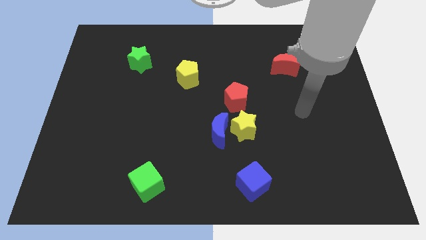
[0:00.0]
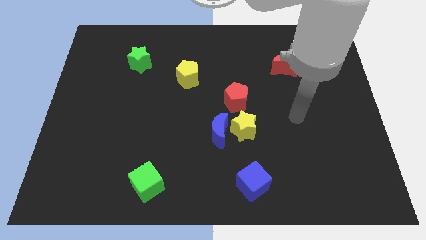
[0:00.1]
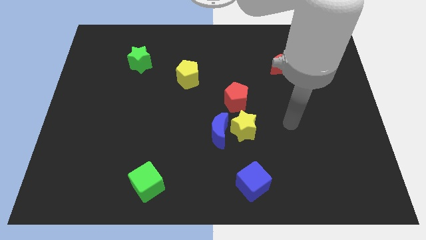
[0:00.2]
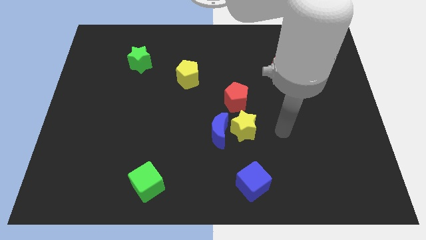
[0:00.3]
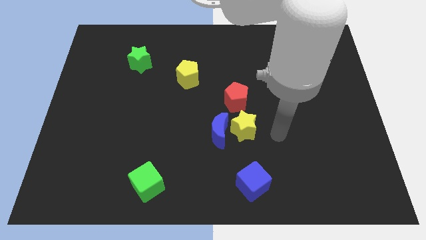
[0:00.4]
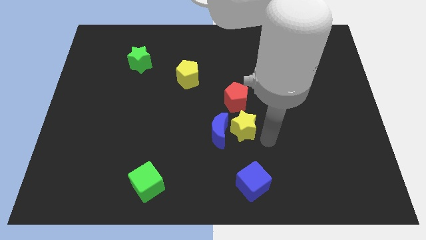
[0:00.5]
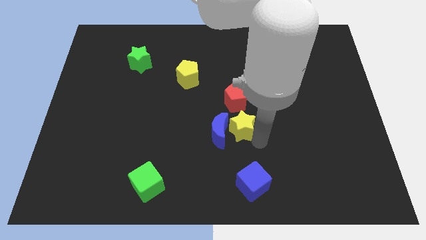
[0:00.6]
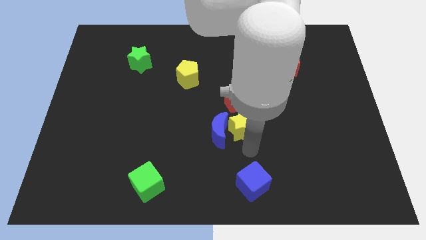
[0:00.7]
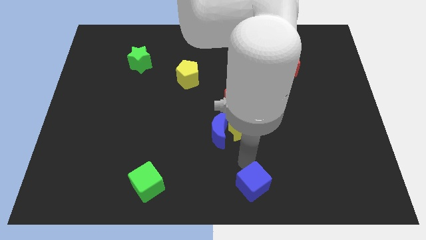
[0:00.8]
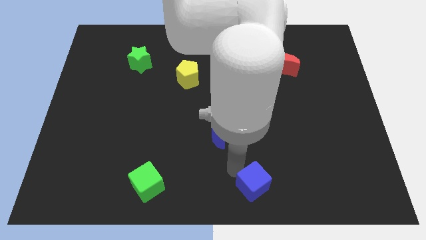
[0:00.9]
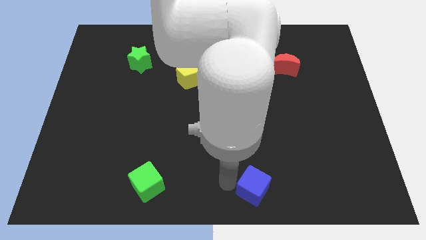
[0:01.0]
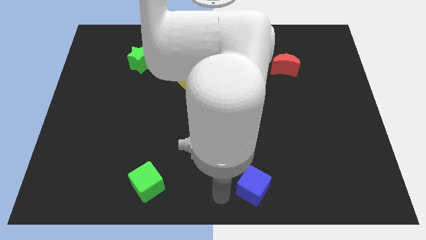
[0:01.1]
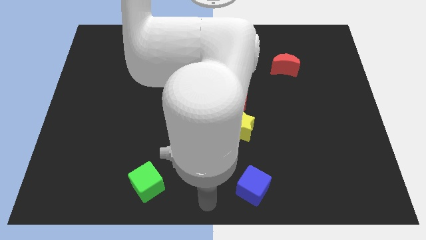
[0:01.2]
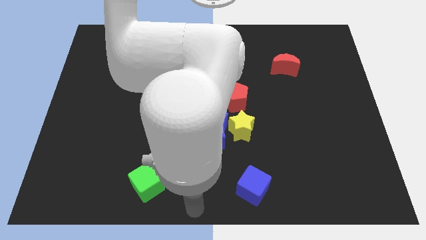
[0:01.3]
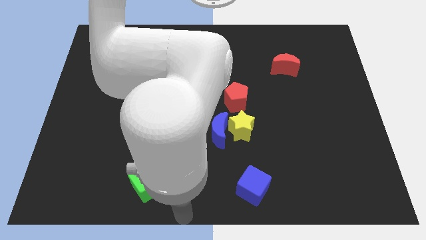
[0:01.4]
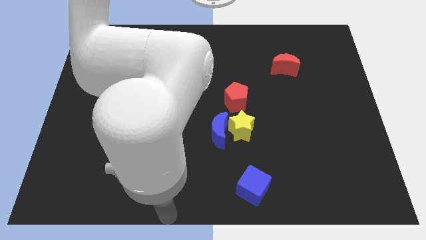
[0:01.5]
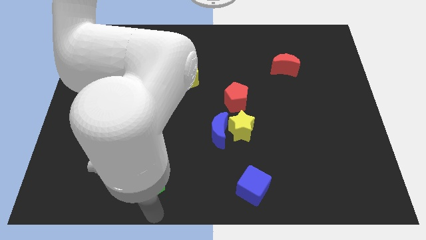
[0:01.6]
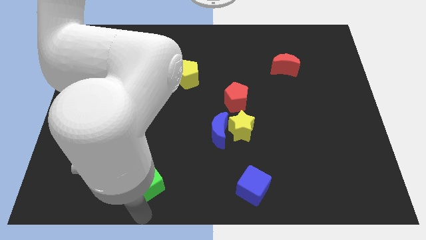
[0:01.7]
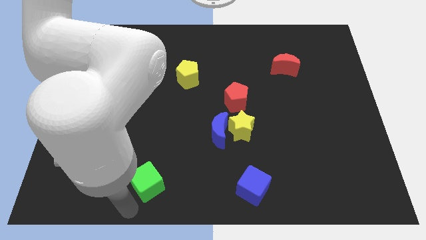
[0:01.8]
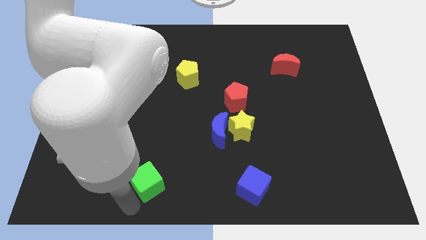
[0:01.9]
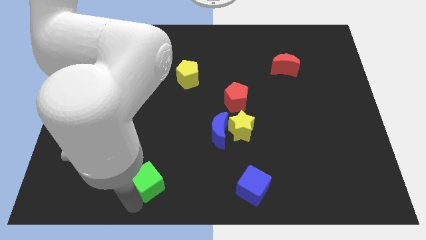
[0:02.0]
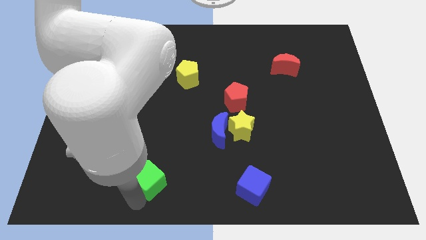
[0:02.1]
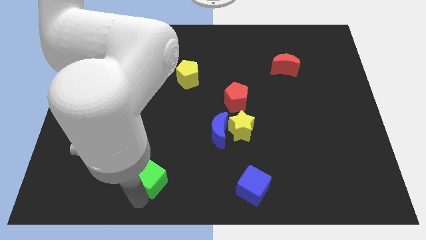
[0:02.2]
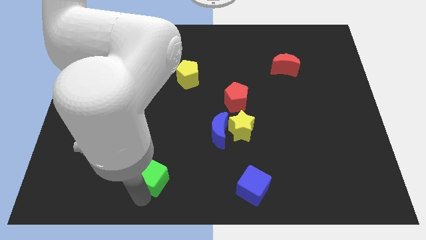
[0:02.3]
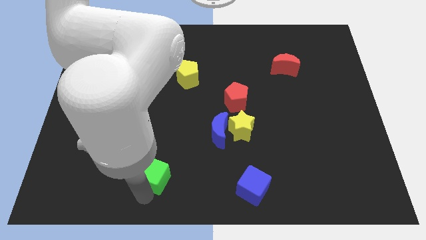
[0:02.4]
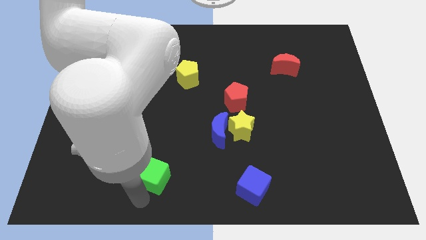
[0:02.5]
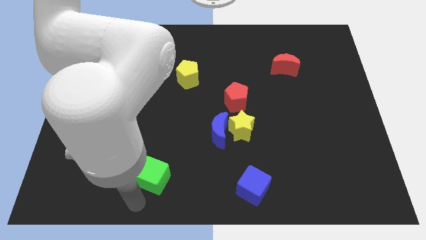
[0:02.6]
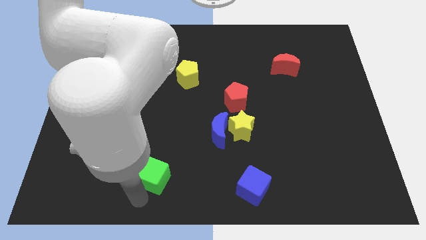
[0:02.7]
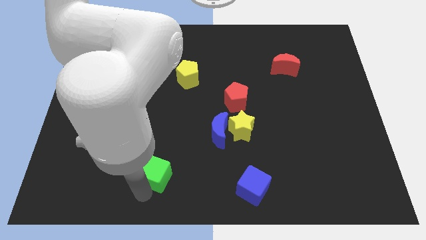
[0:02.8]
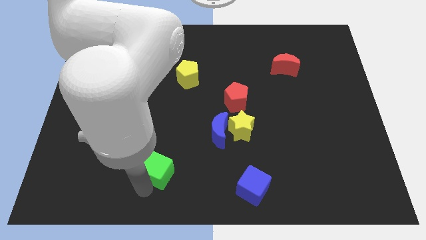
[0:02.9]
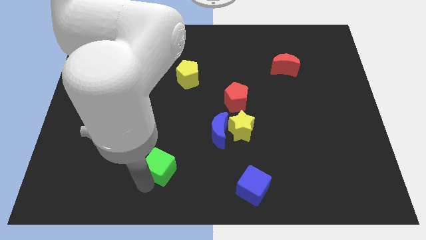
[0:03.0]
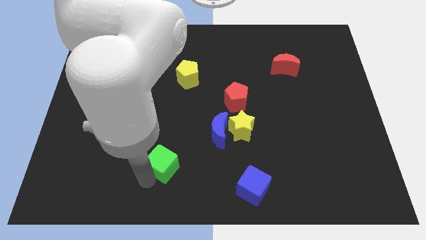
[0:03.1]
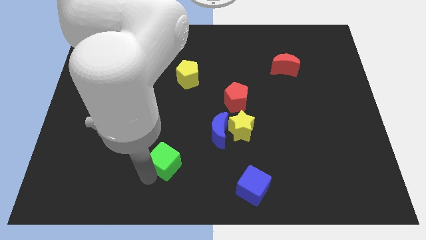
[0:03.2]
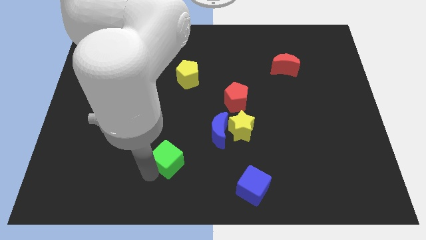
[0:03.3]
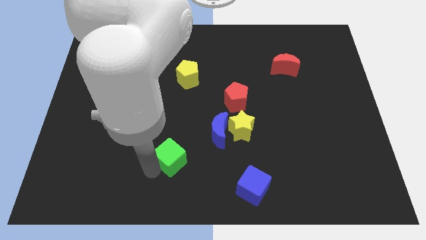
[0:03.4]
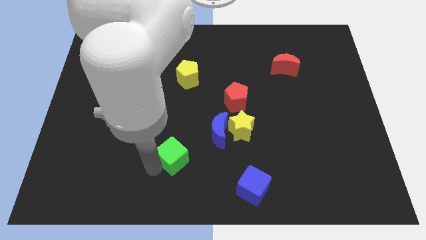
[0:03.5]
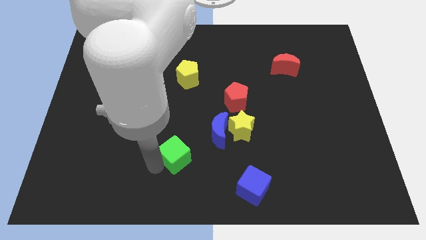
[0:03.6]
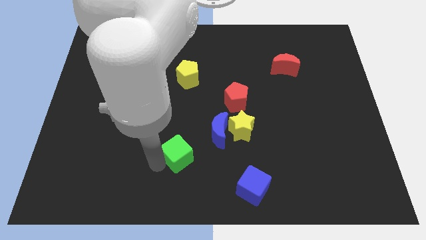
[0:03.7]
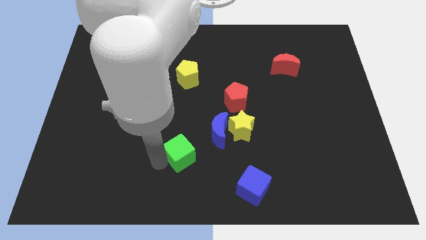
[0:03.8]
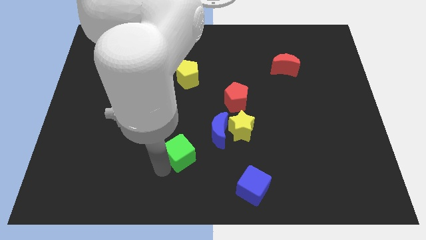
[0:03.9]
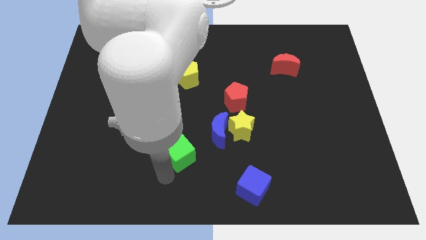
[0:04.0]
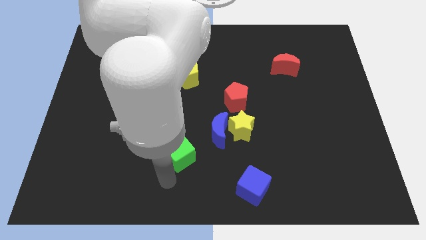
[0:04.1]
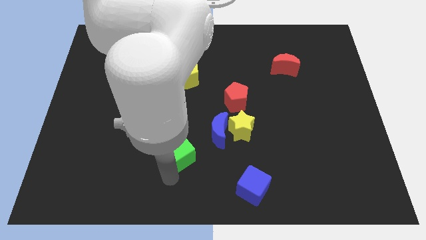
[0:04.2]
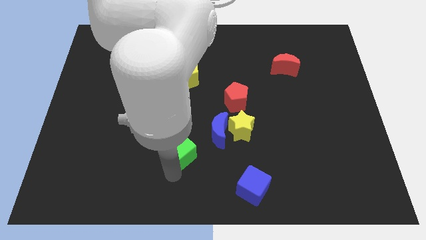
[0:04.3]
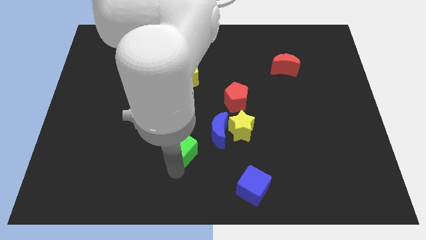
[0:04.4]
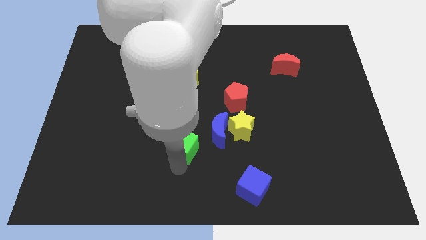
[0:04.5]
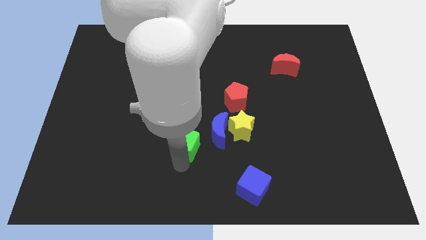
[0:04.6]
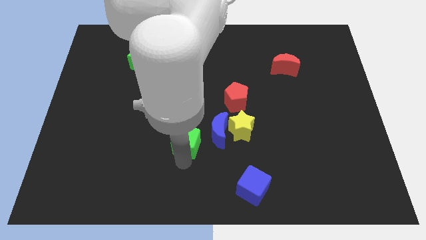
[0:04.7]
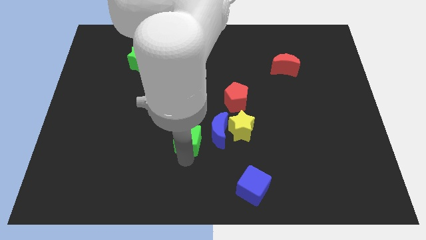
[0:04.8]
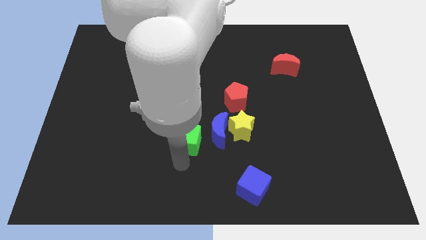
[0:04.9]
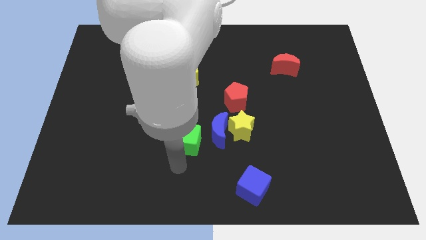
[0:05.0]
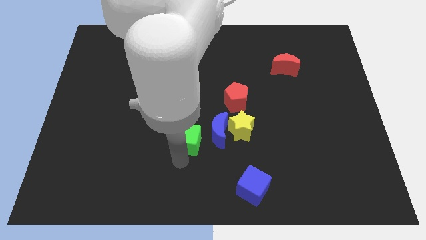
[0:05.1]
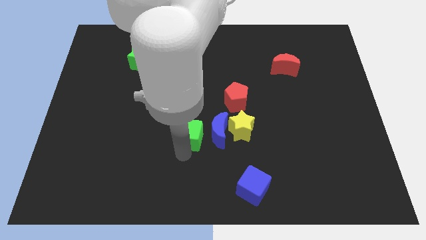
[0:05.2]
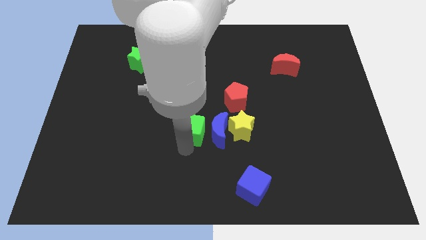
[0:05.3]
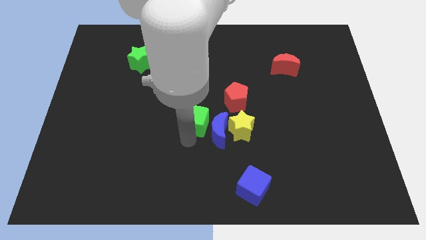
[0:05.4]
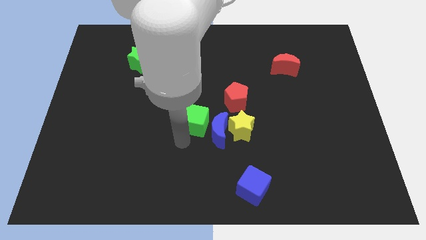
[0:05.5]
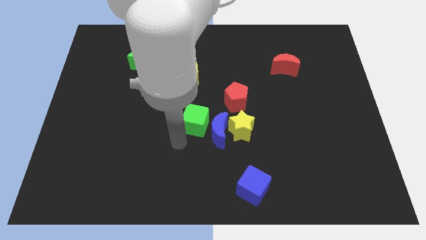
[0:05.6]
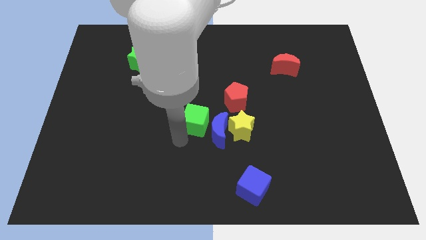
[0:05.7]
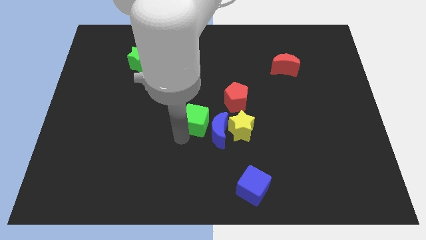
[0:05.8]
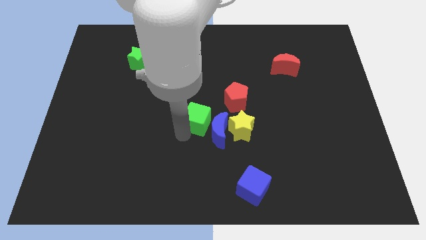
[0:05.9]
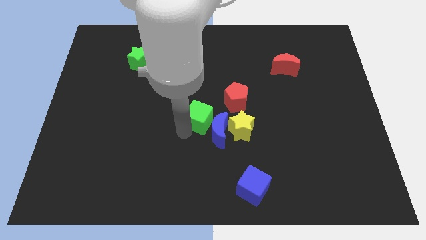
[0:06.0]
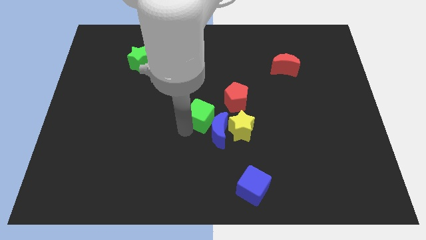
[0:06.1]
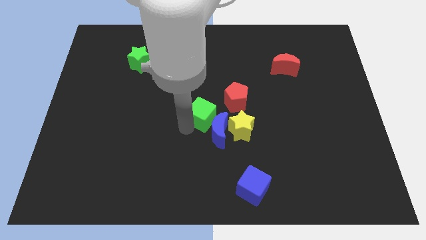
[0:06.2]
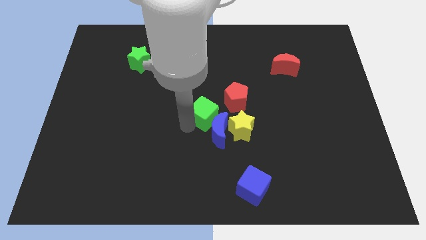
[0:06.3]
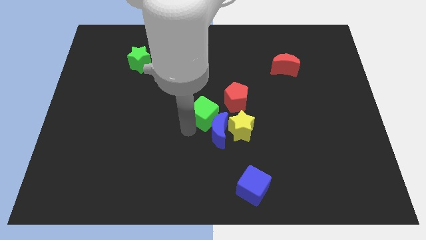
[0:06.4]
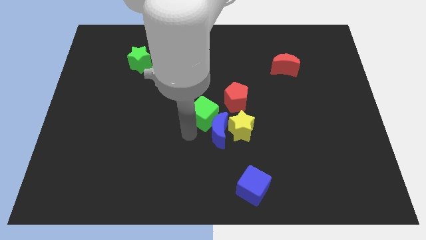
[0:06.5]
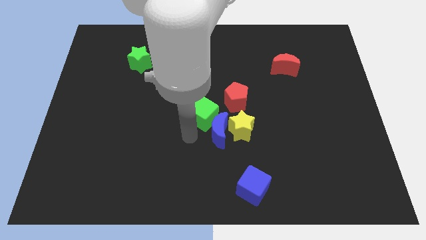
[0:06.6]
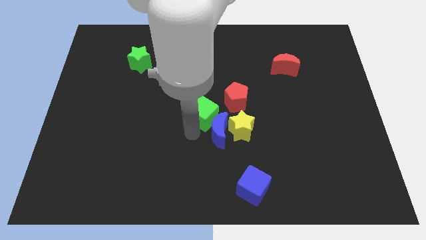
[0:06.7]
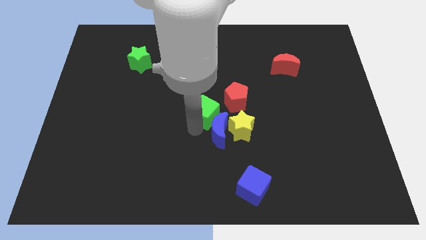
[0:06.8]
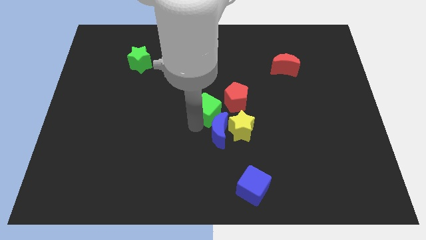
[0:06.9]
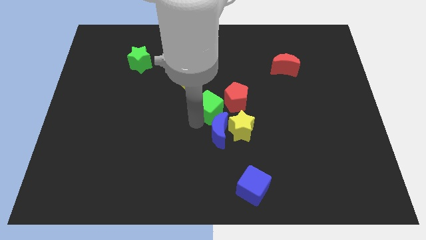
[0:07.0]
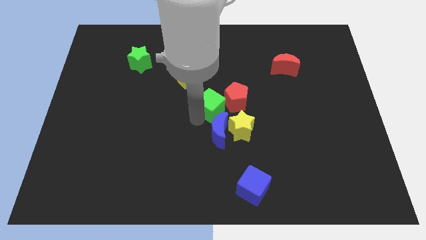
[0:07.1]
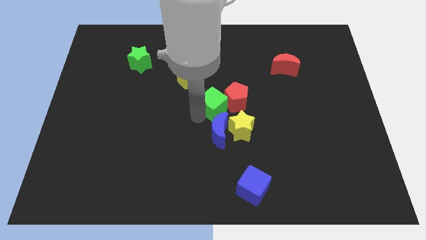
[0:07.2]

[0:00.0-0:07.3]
put the green cube towards the red pentagon

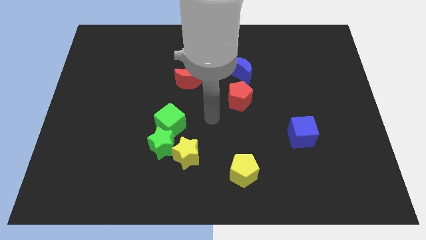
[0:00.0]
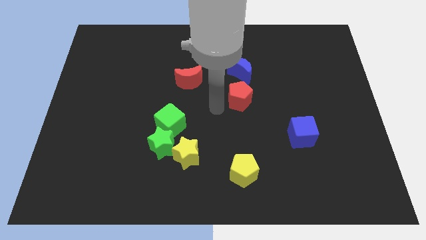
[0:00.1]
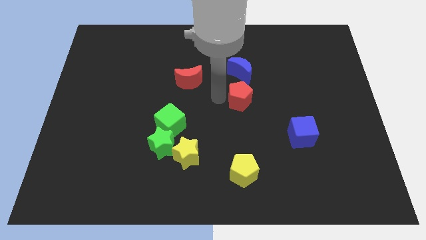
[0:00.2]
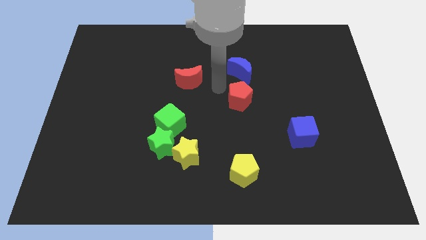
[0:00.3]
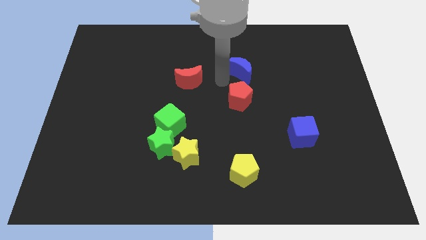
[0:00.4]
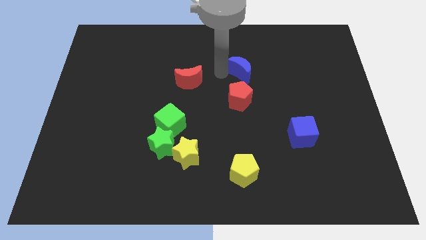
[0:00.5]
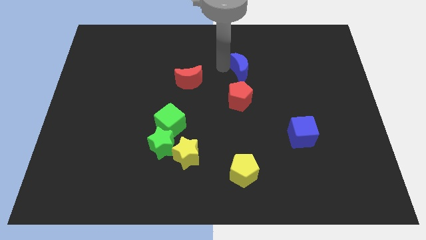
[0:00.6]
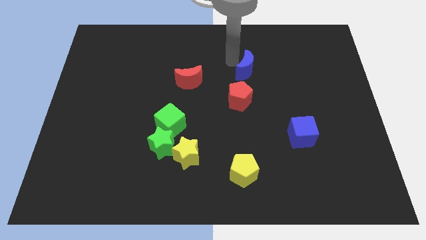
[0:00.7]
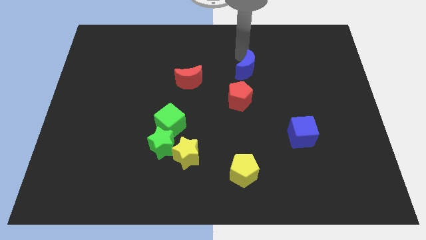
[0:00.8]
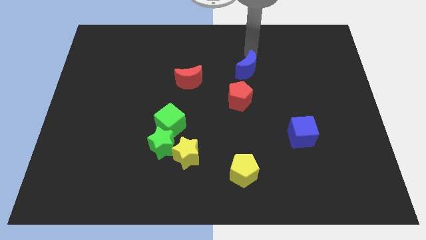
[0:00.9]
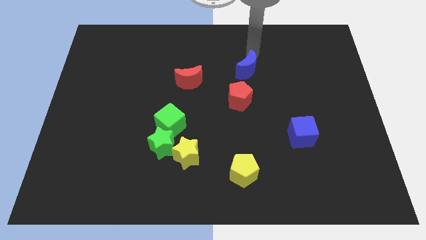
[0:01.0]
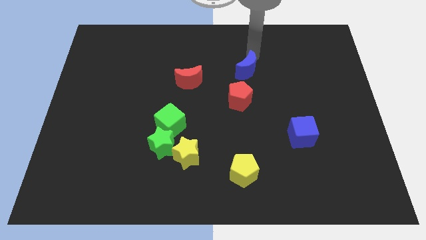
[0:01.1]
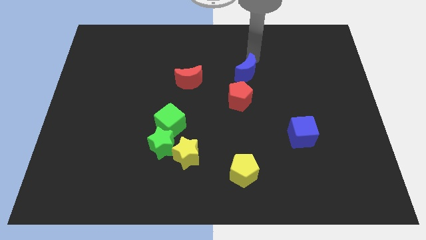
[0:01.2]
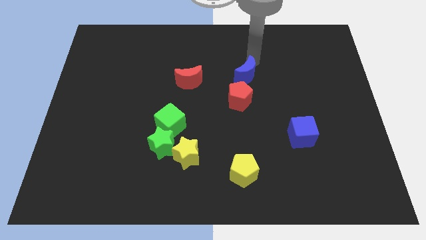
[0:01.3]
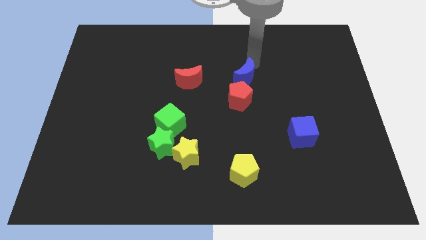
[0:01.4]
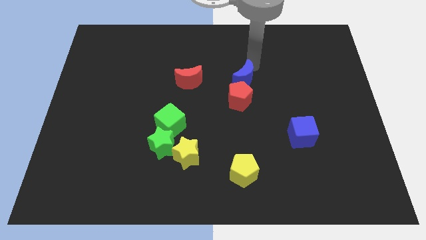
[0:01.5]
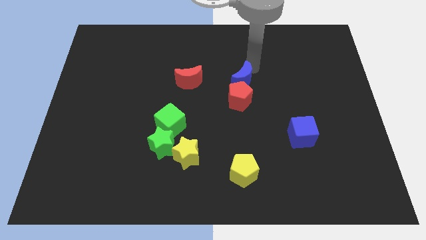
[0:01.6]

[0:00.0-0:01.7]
move the blue moon close to the red pentagon
